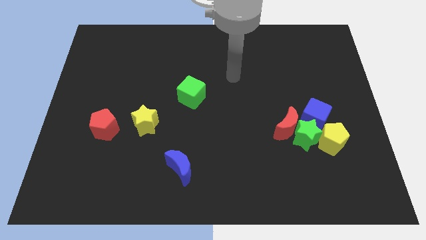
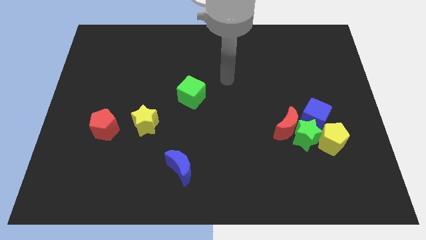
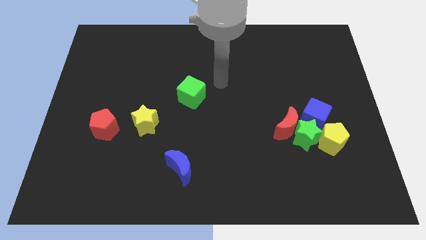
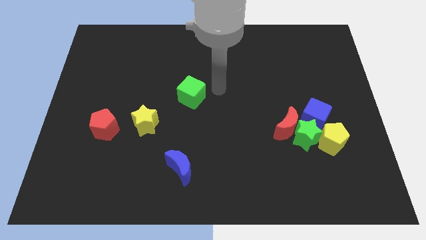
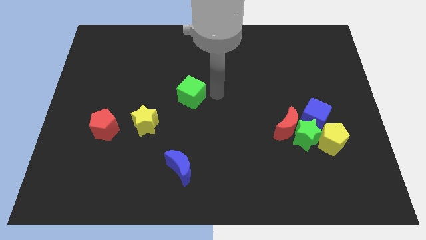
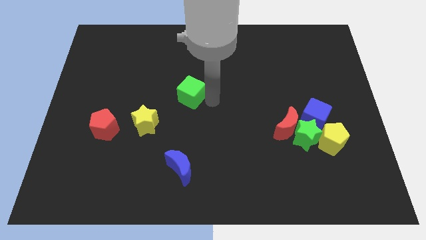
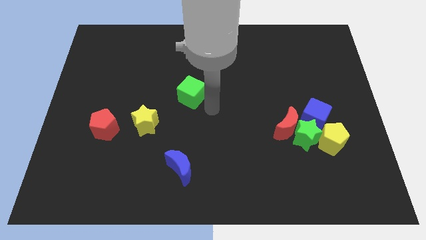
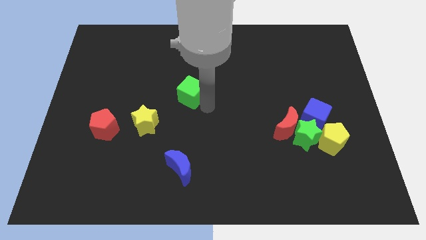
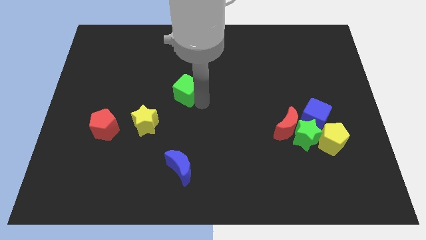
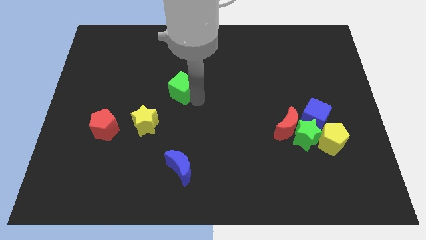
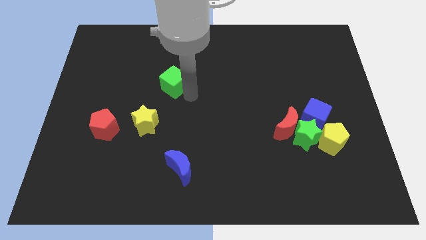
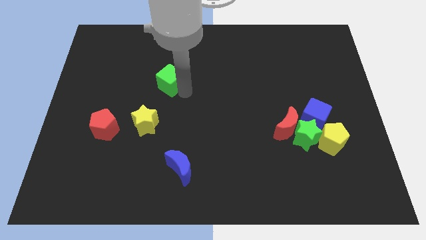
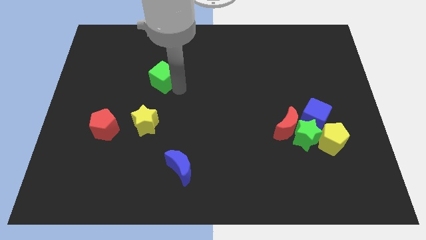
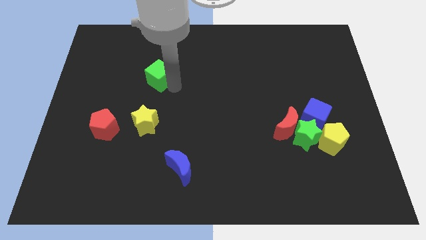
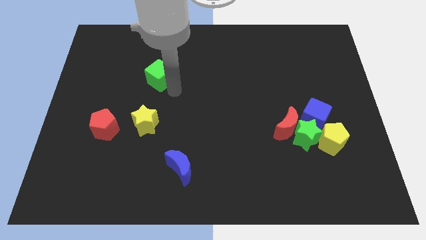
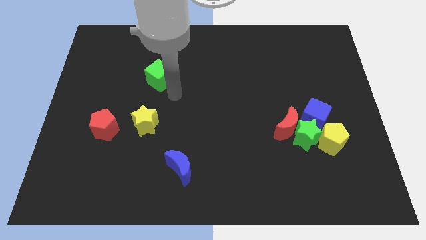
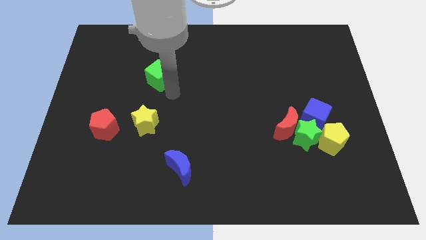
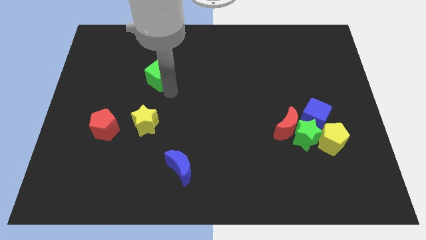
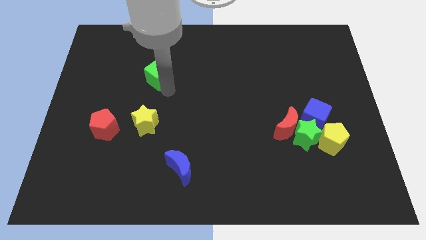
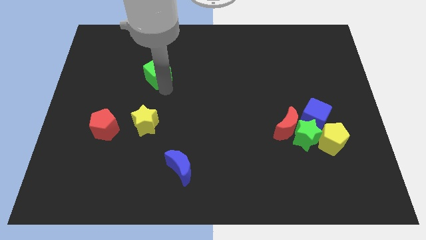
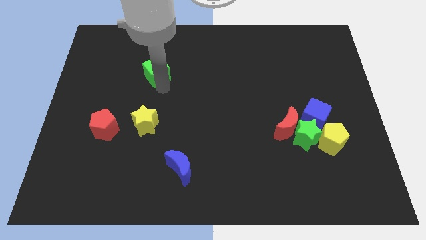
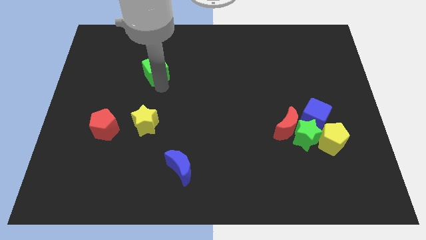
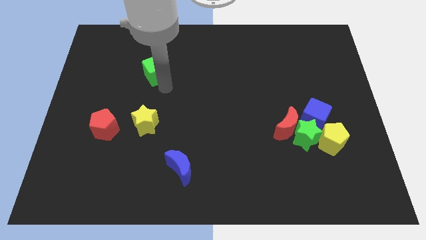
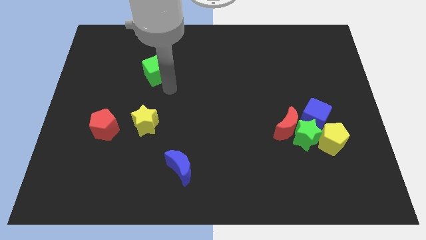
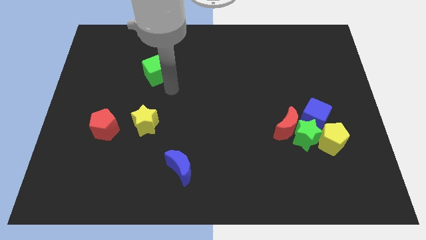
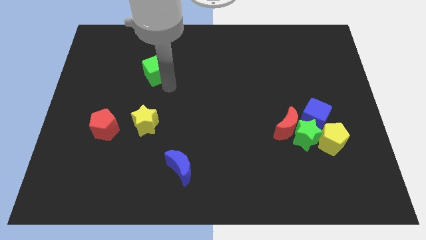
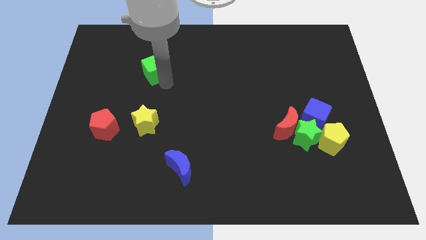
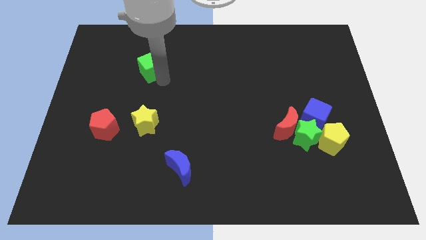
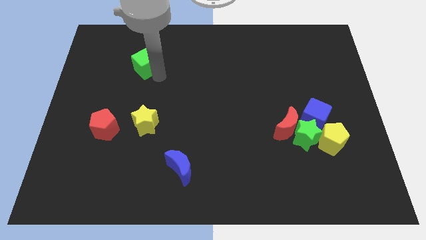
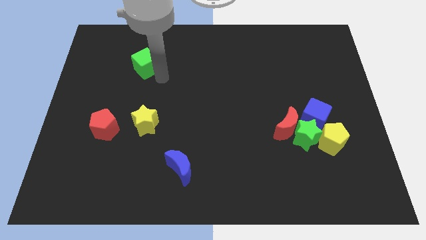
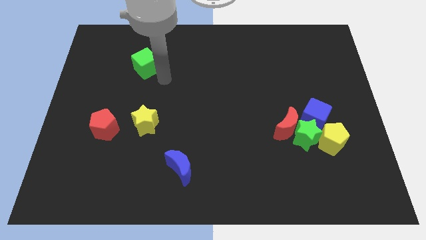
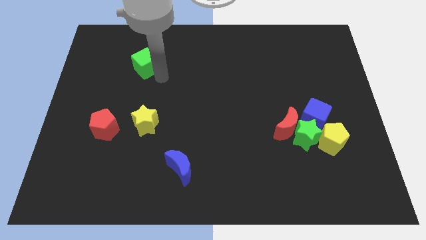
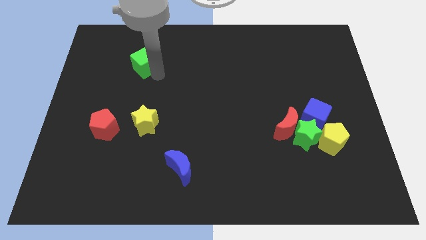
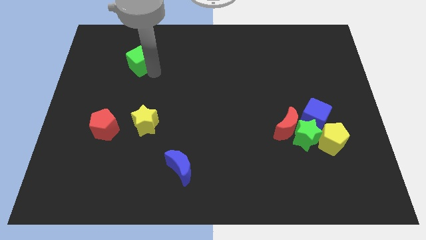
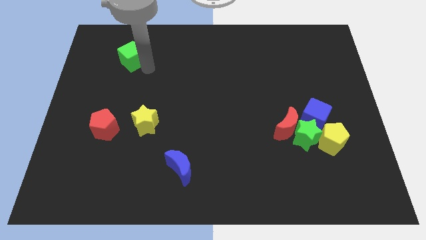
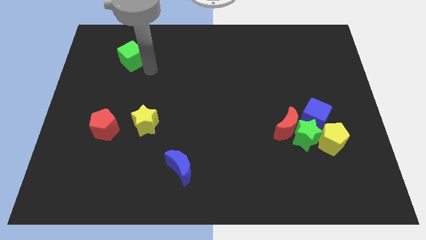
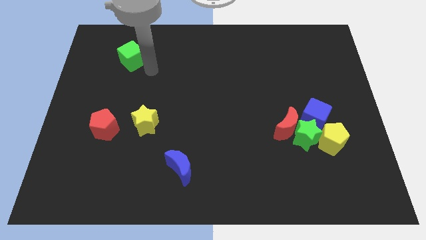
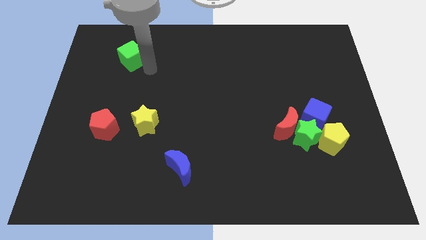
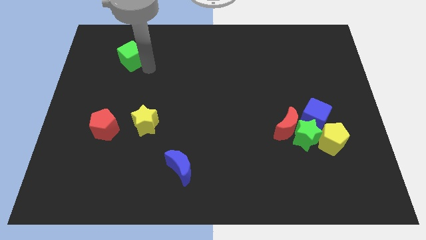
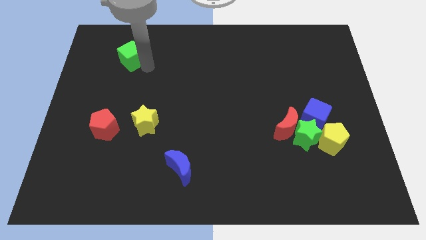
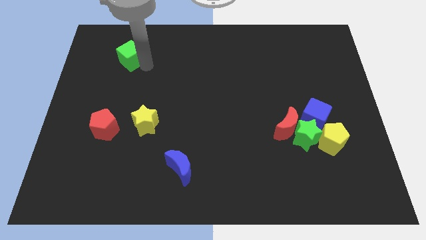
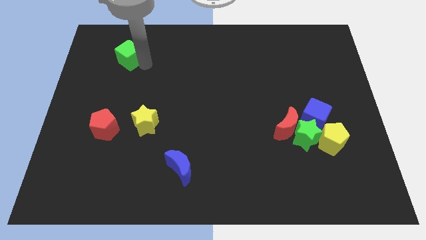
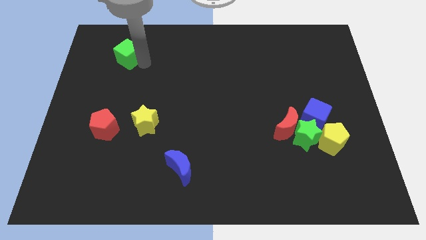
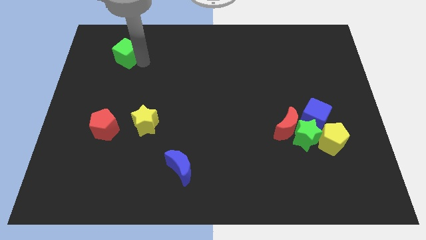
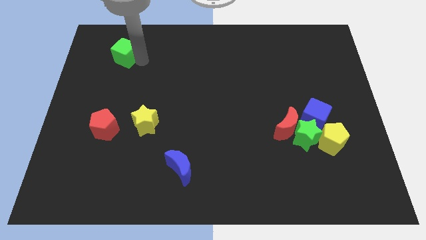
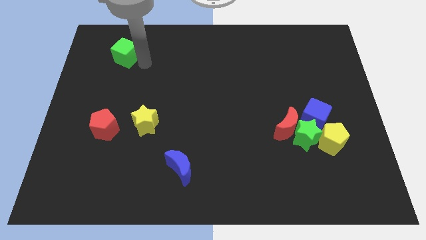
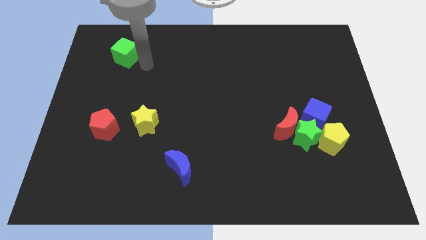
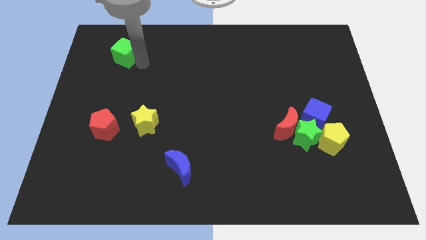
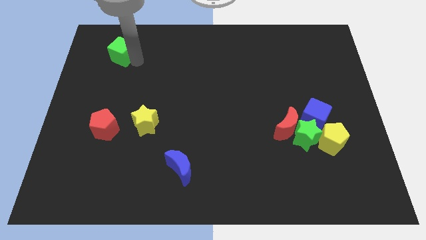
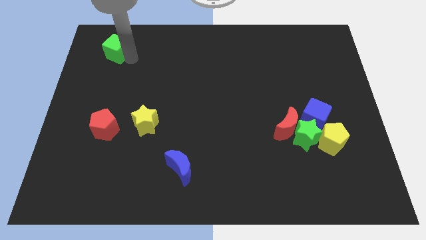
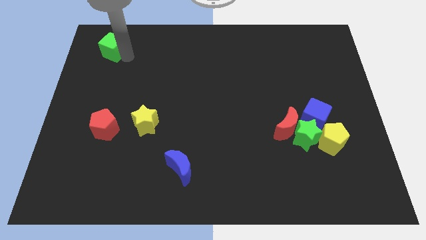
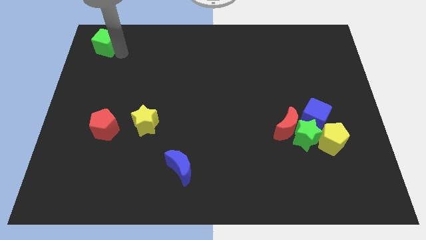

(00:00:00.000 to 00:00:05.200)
slide the green cube to the top left corner

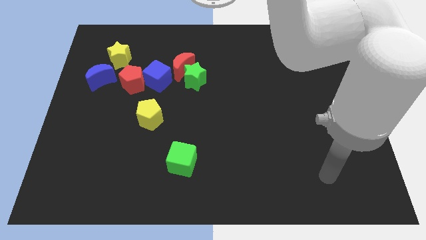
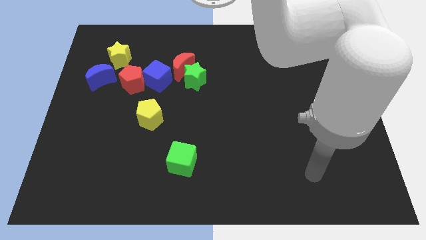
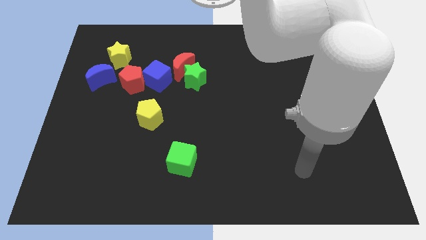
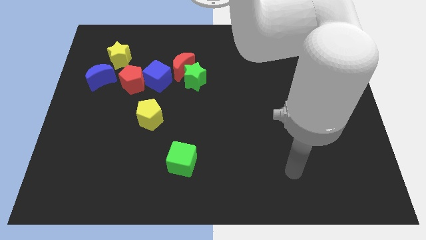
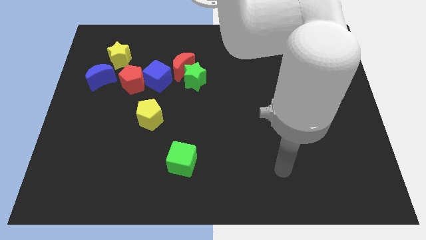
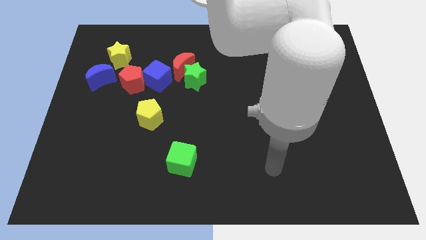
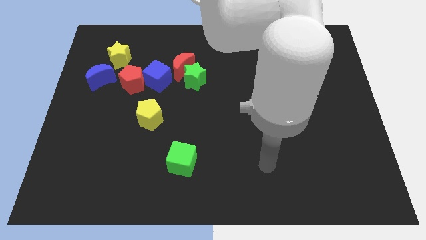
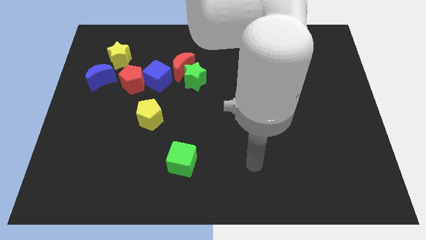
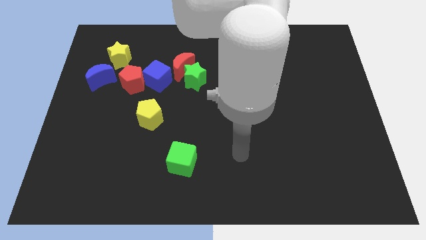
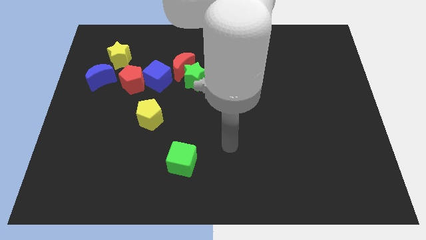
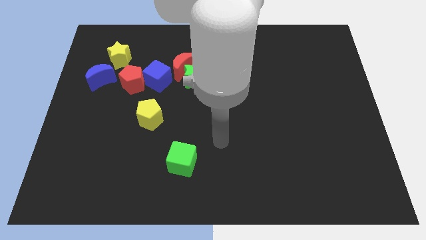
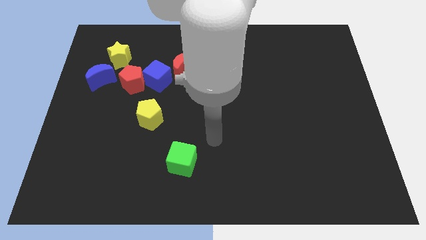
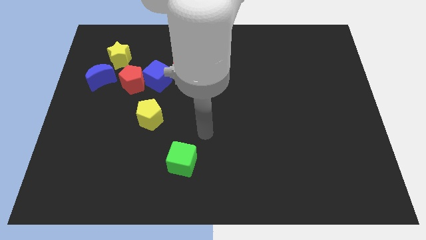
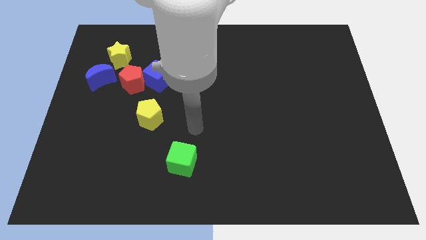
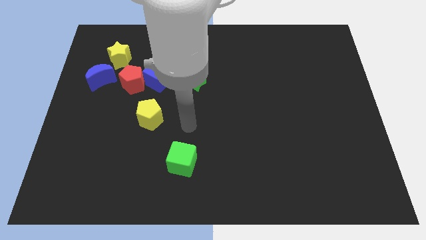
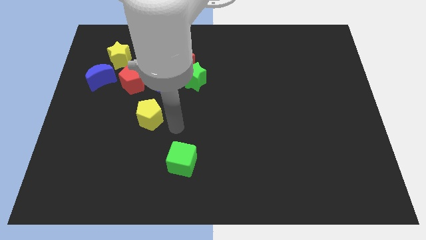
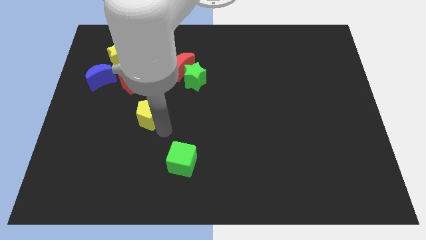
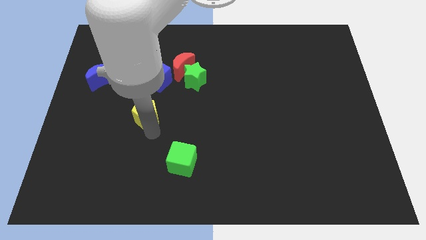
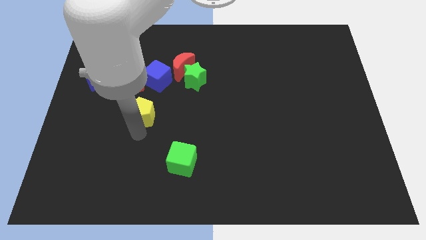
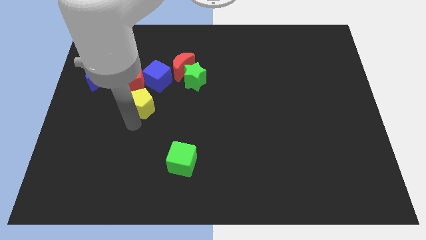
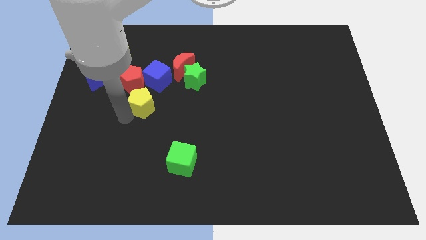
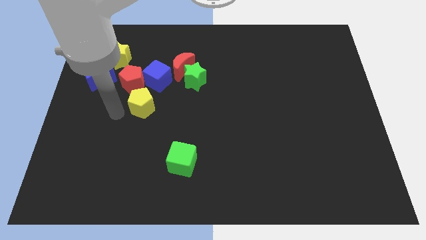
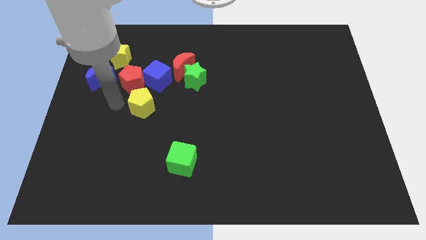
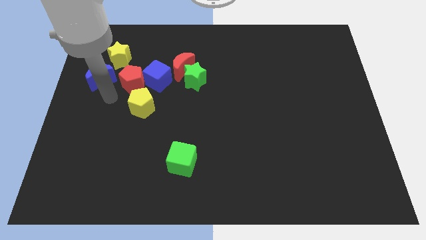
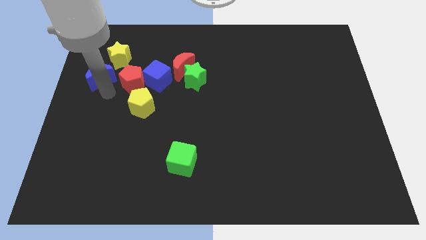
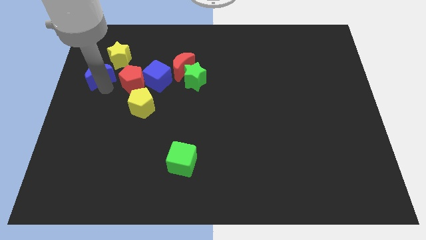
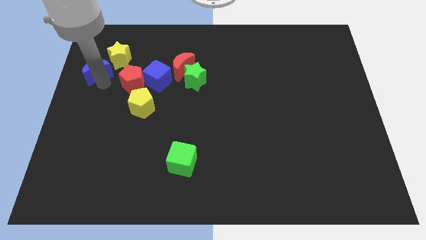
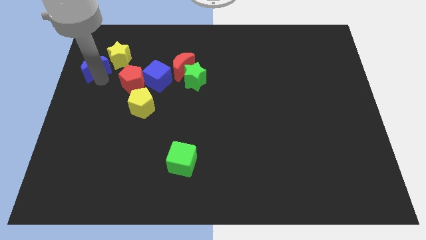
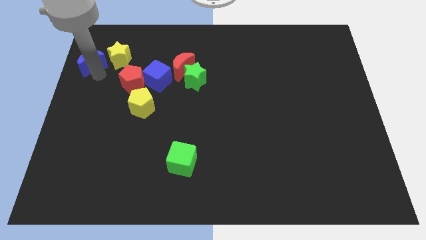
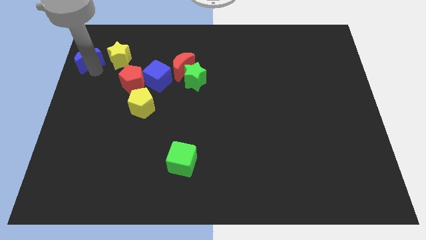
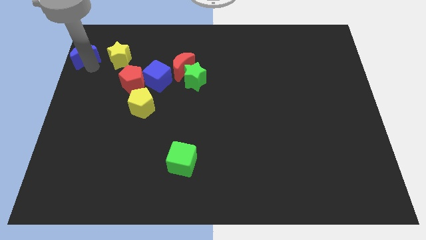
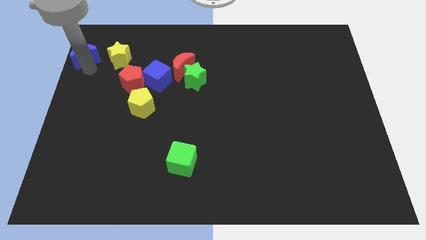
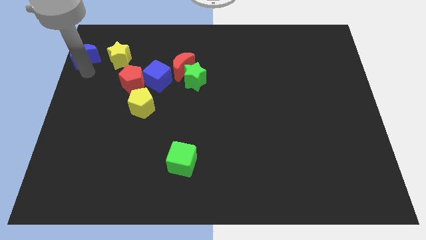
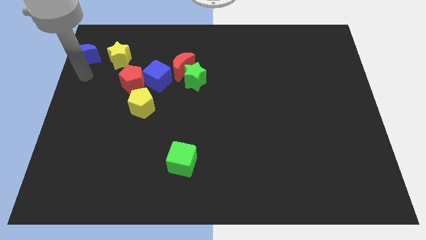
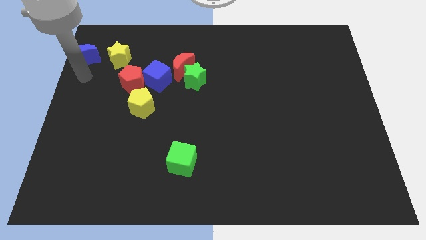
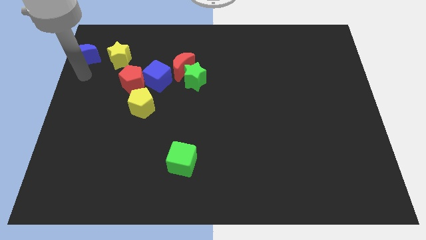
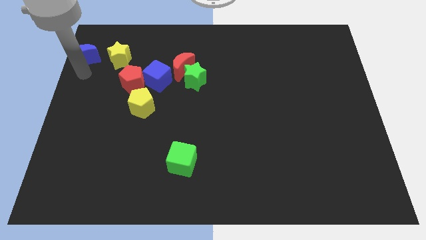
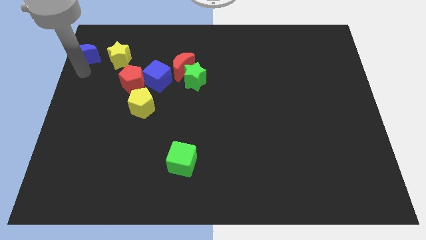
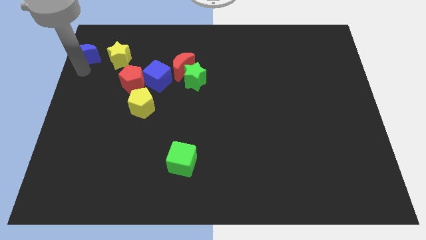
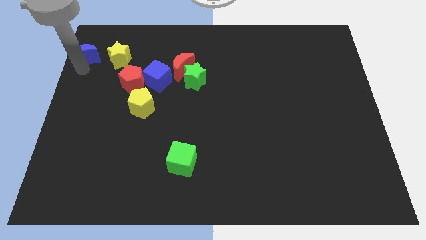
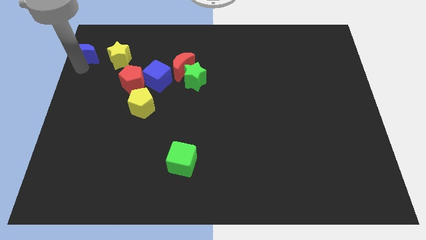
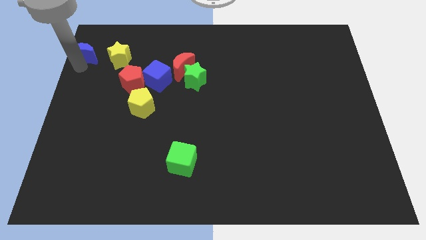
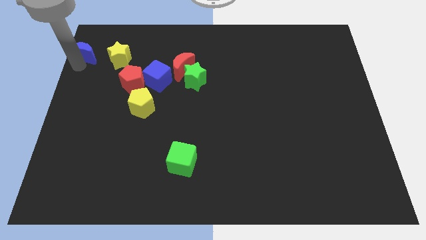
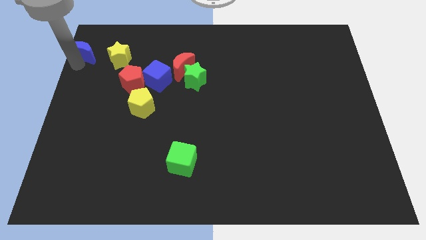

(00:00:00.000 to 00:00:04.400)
put the blue moon to the top left of the board
